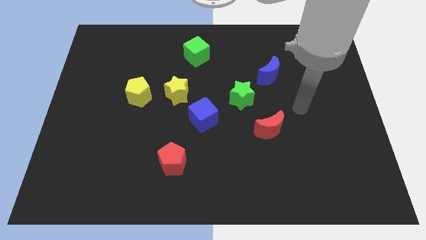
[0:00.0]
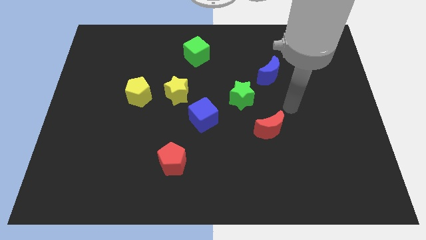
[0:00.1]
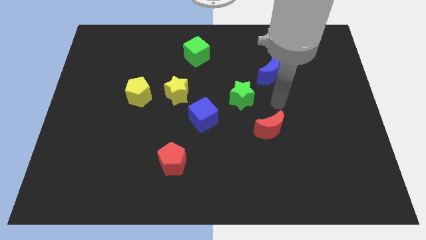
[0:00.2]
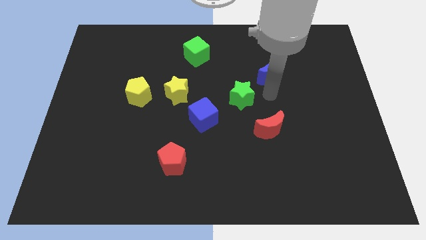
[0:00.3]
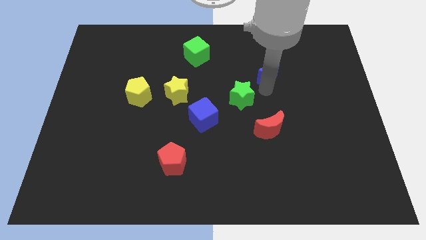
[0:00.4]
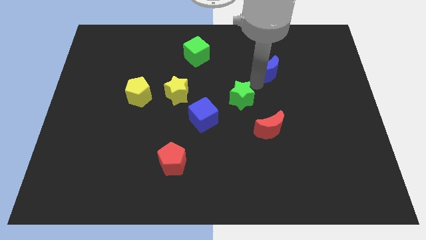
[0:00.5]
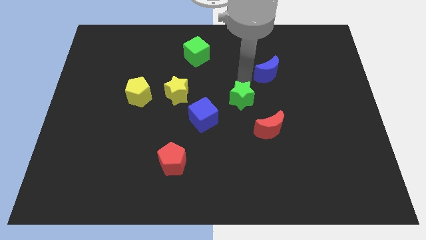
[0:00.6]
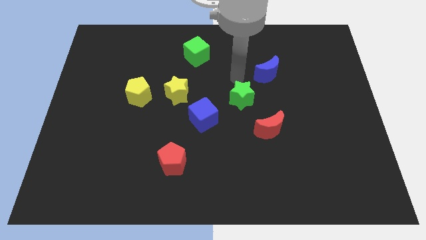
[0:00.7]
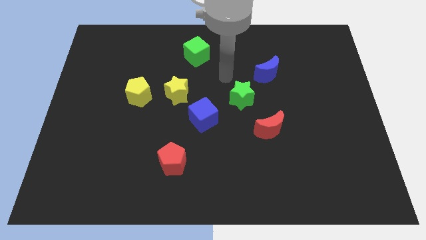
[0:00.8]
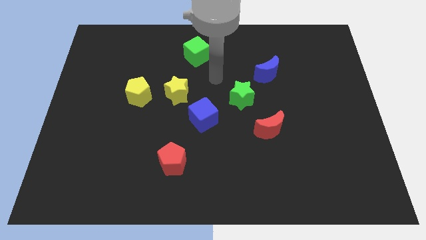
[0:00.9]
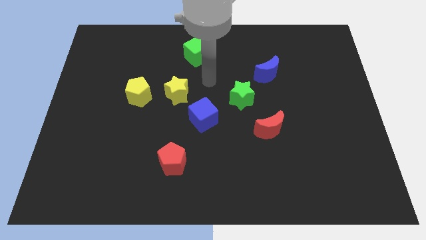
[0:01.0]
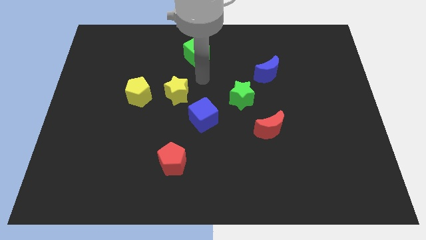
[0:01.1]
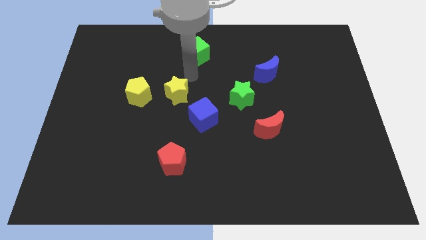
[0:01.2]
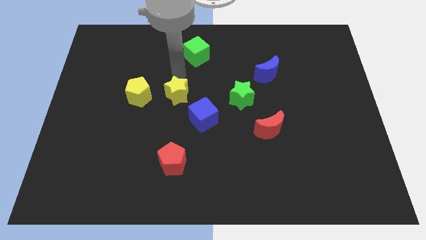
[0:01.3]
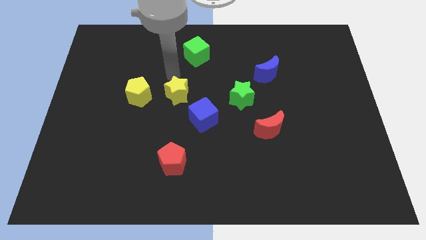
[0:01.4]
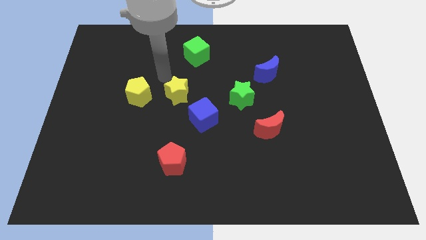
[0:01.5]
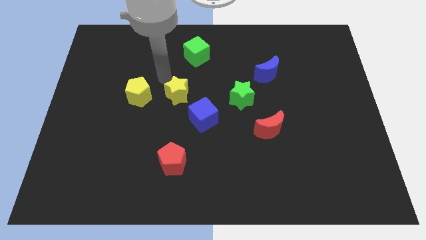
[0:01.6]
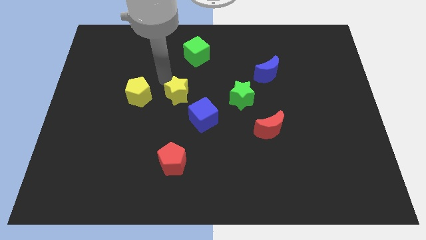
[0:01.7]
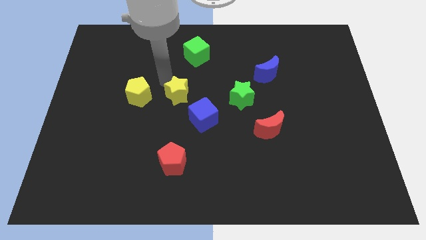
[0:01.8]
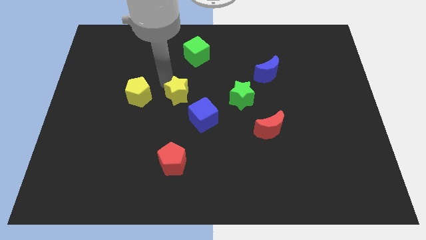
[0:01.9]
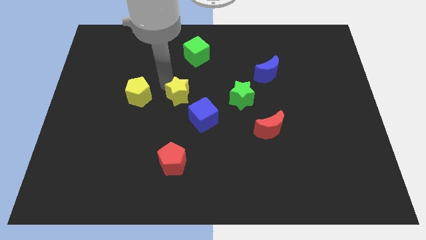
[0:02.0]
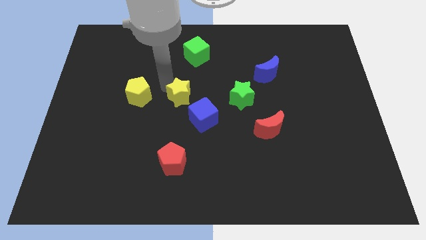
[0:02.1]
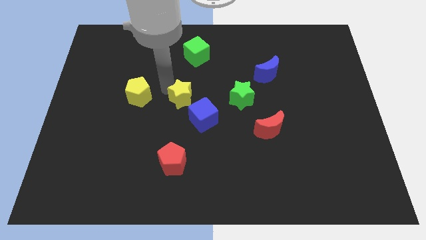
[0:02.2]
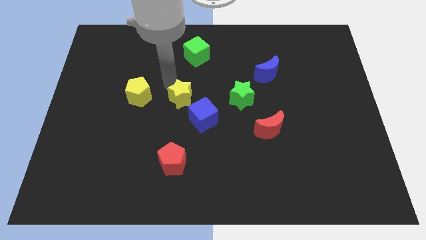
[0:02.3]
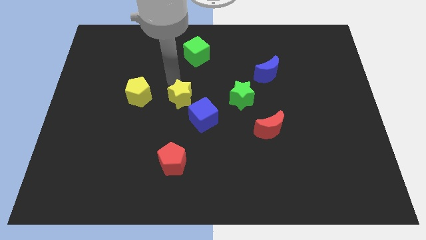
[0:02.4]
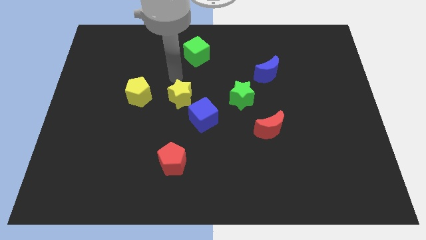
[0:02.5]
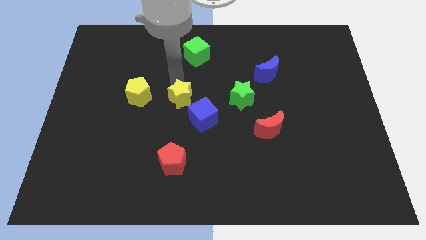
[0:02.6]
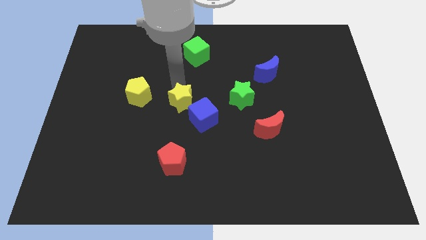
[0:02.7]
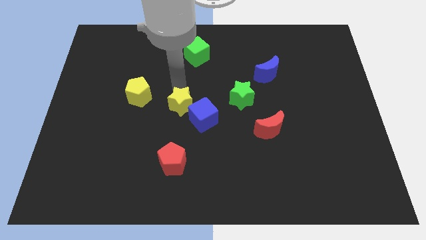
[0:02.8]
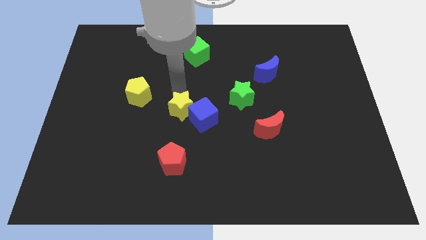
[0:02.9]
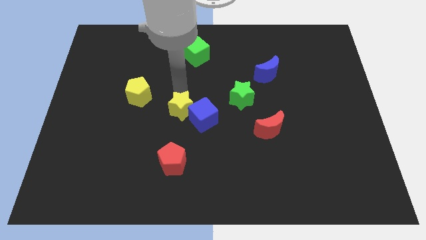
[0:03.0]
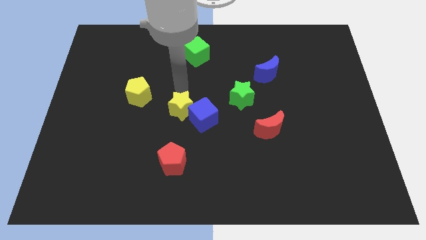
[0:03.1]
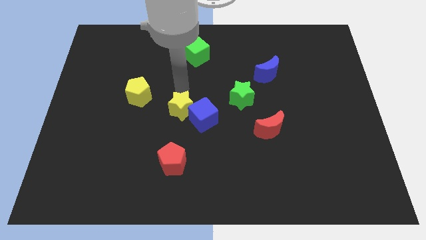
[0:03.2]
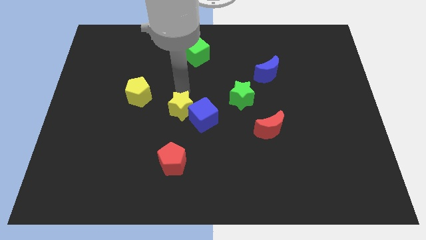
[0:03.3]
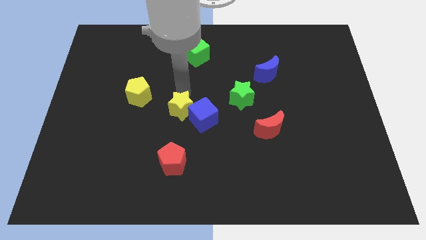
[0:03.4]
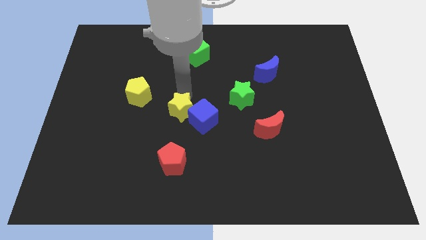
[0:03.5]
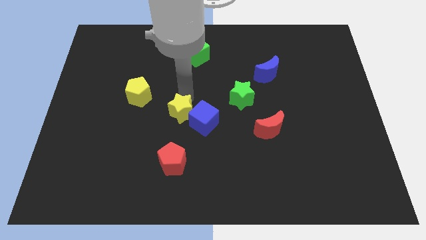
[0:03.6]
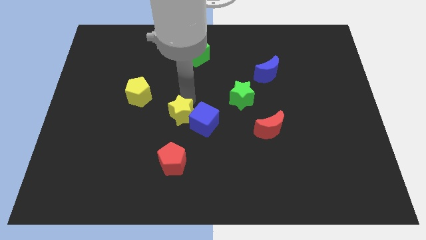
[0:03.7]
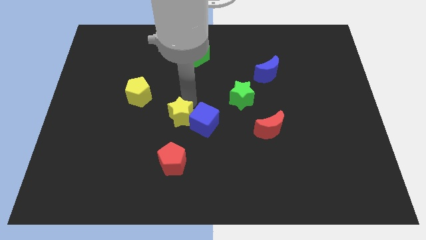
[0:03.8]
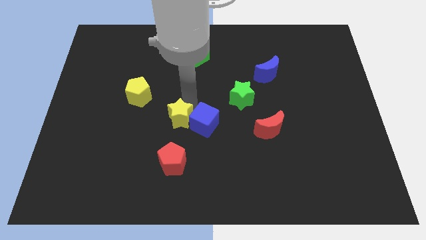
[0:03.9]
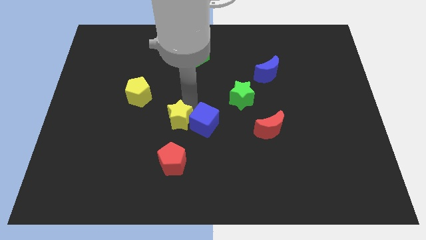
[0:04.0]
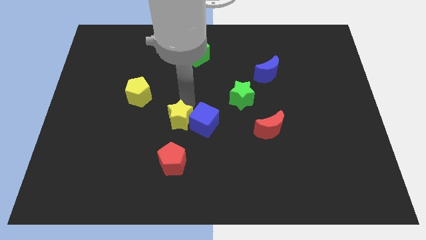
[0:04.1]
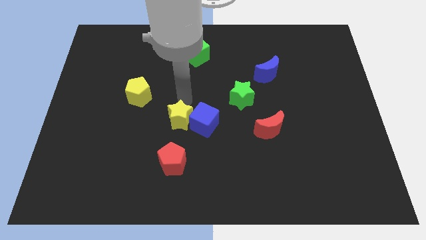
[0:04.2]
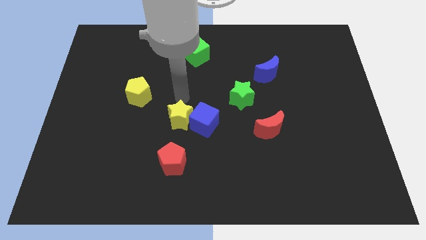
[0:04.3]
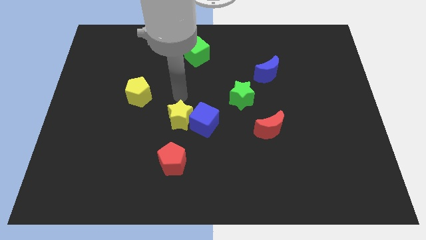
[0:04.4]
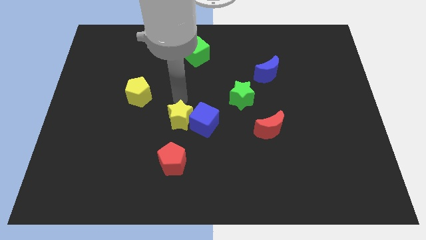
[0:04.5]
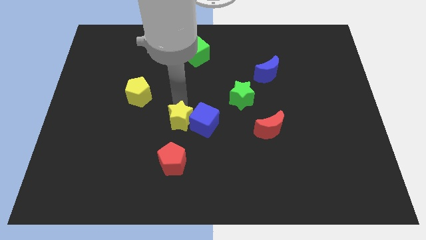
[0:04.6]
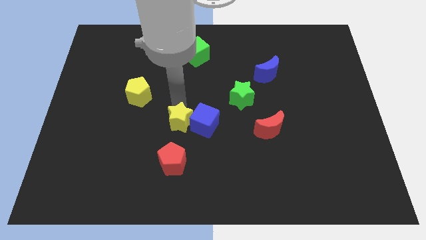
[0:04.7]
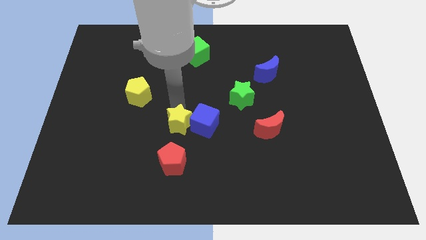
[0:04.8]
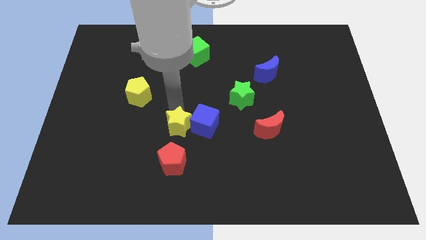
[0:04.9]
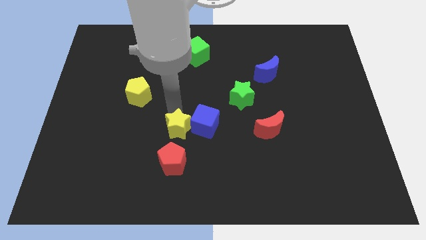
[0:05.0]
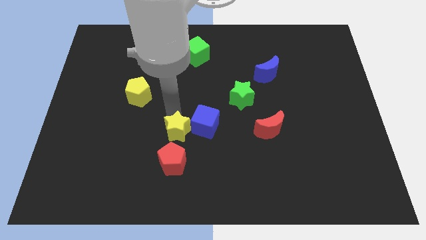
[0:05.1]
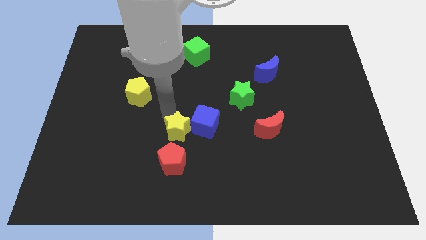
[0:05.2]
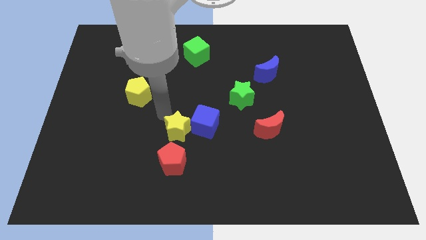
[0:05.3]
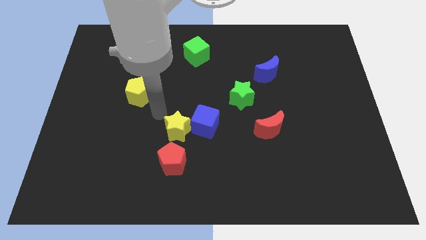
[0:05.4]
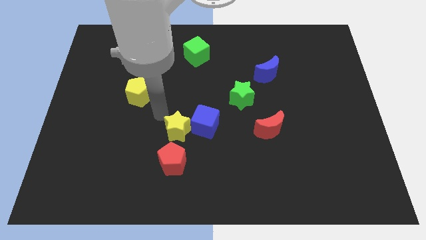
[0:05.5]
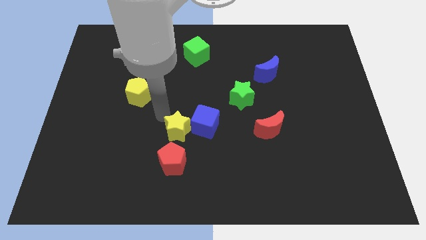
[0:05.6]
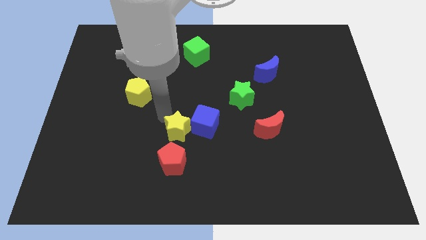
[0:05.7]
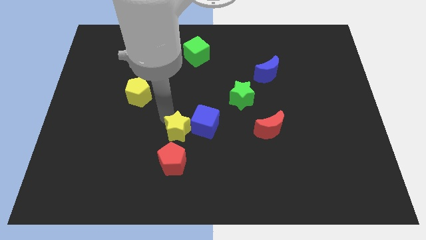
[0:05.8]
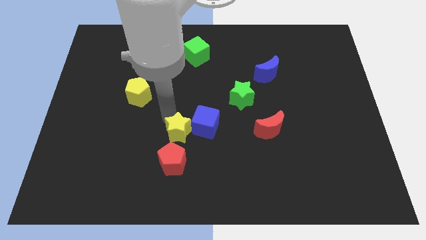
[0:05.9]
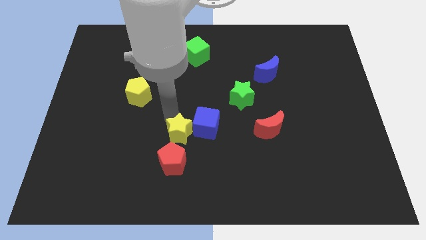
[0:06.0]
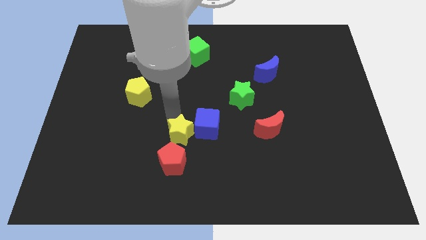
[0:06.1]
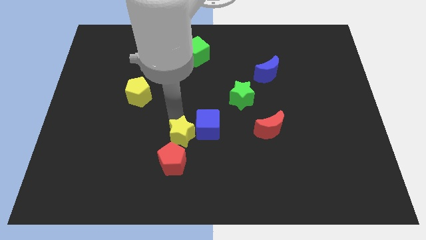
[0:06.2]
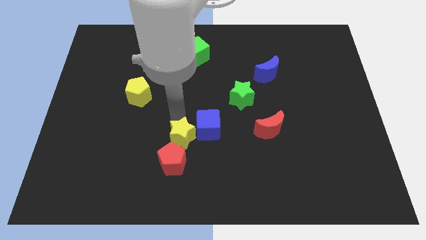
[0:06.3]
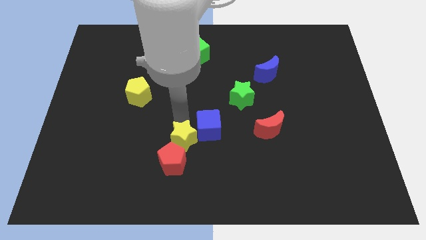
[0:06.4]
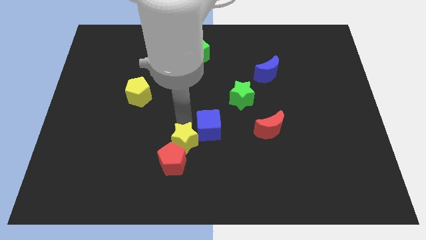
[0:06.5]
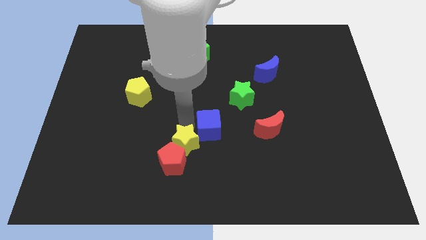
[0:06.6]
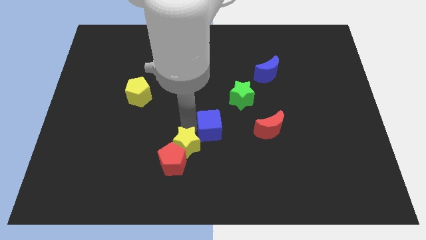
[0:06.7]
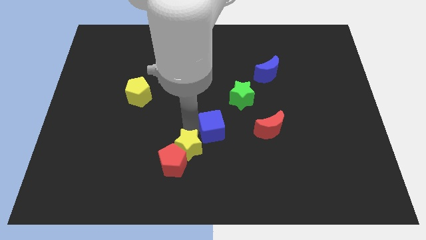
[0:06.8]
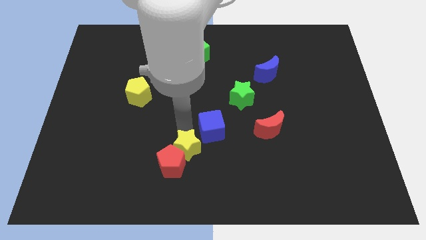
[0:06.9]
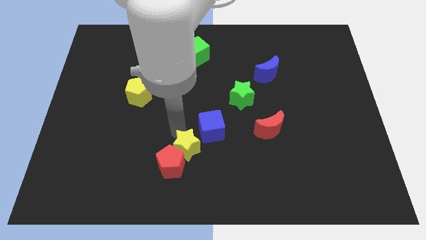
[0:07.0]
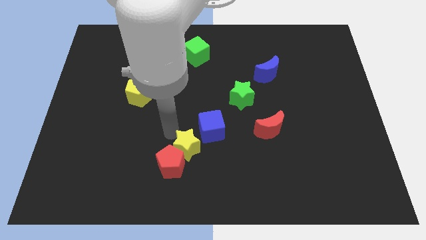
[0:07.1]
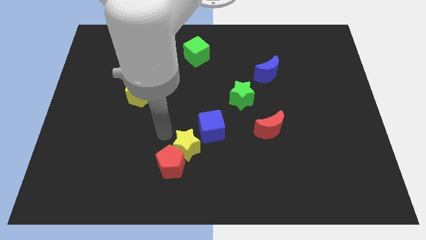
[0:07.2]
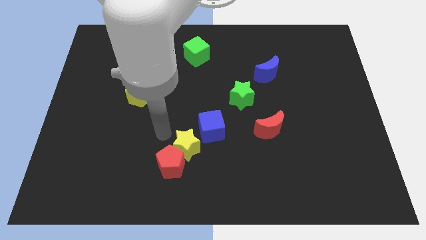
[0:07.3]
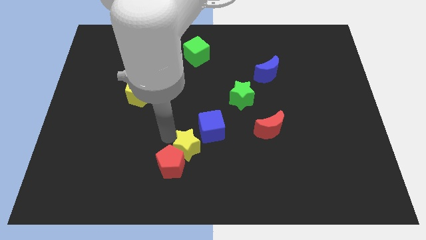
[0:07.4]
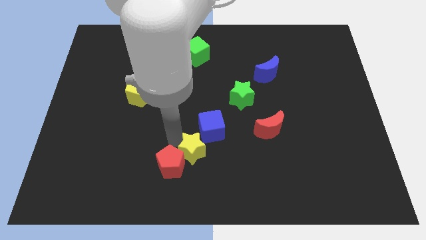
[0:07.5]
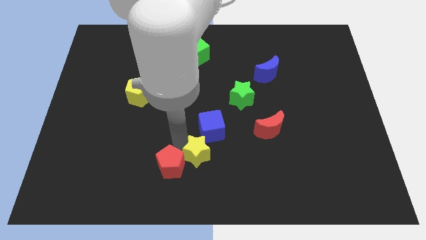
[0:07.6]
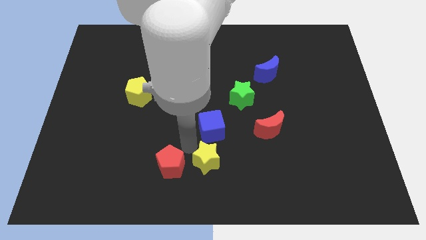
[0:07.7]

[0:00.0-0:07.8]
push the yellow star to the bottom side
